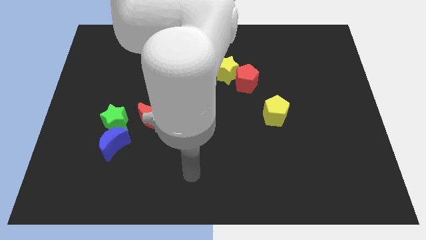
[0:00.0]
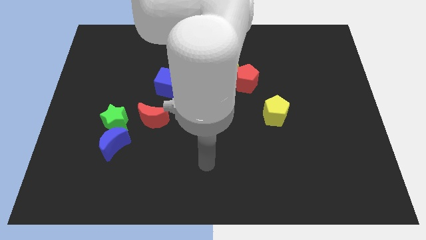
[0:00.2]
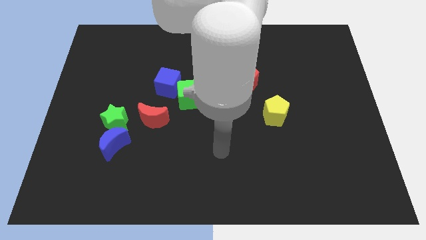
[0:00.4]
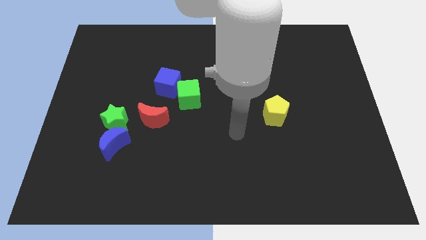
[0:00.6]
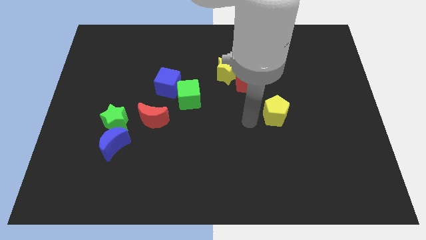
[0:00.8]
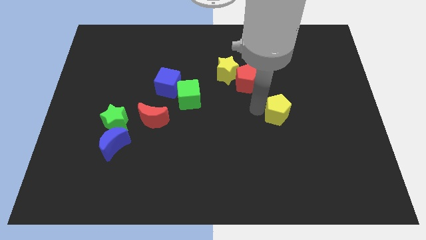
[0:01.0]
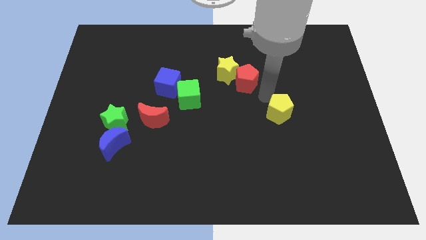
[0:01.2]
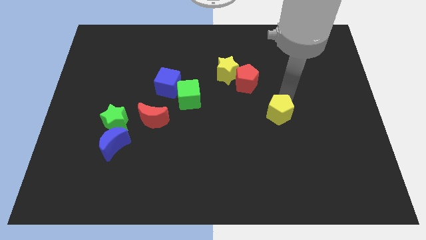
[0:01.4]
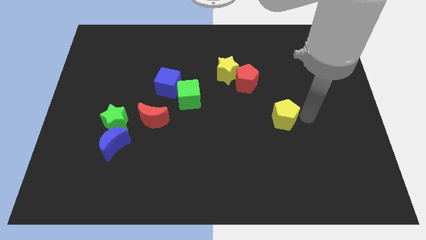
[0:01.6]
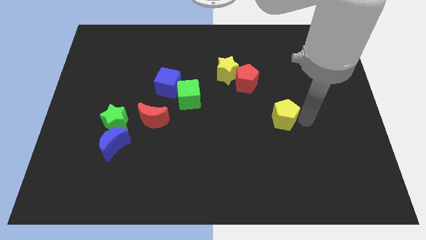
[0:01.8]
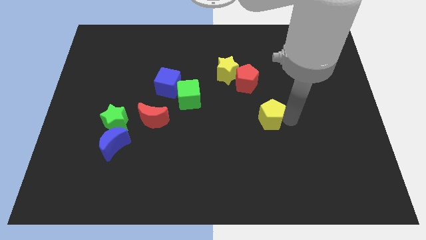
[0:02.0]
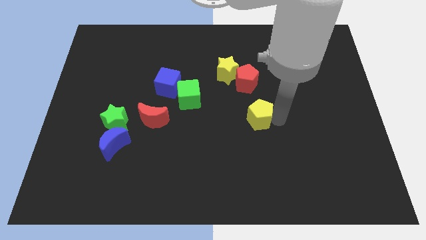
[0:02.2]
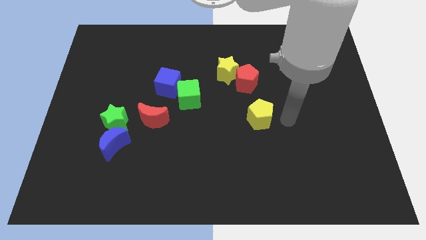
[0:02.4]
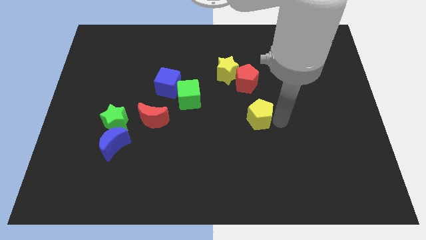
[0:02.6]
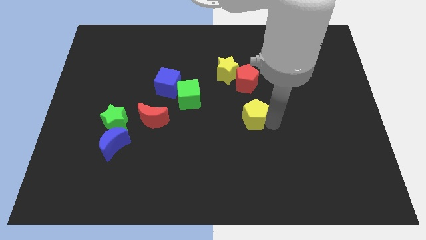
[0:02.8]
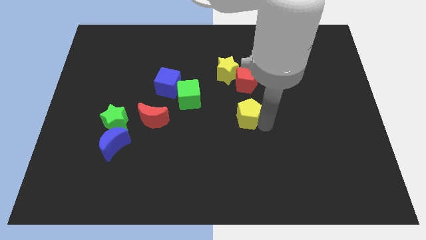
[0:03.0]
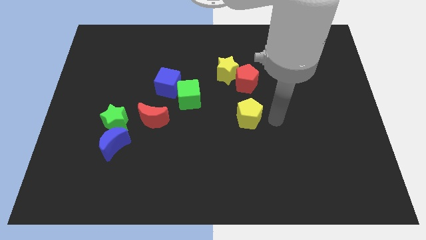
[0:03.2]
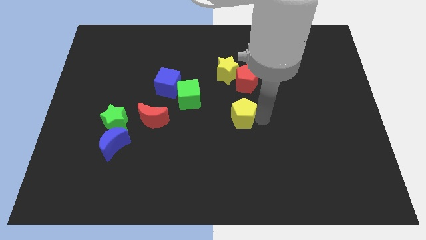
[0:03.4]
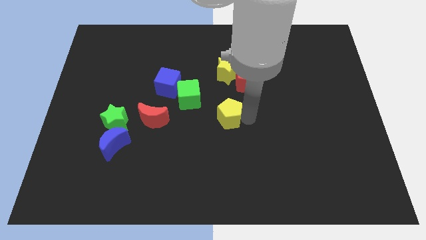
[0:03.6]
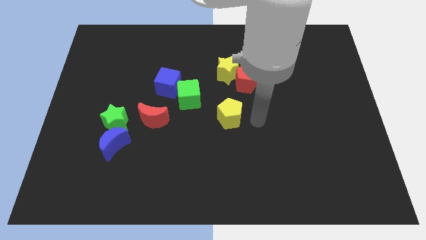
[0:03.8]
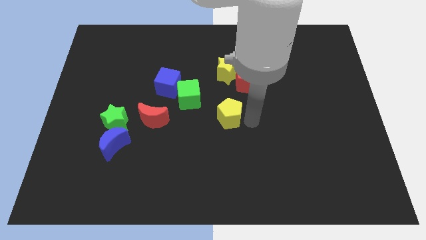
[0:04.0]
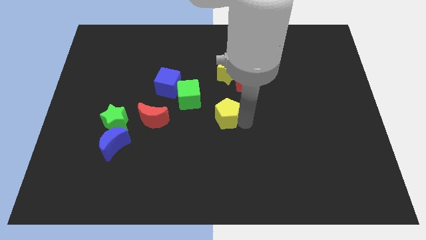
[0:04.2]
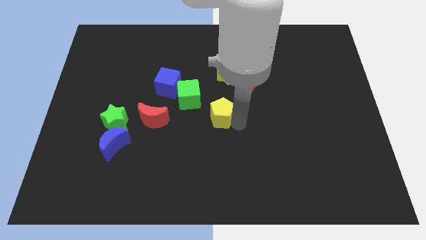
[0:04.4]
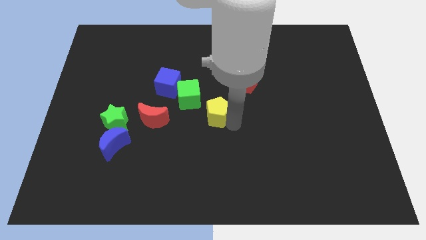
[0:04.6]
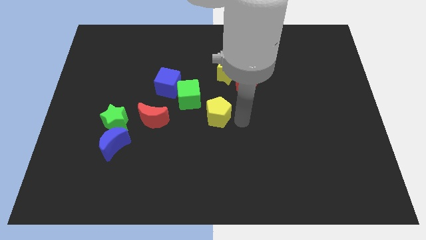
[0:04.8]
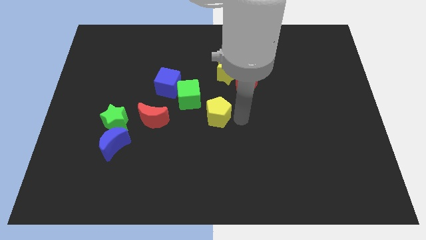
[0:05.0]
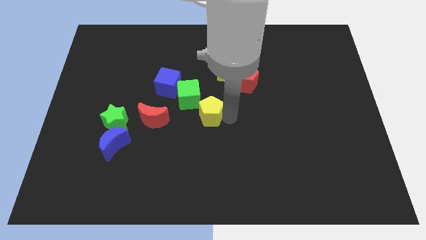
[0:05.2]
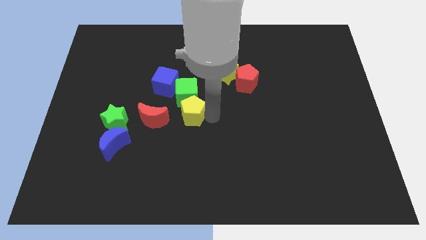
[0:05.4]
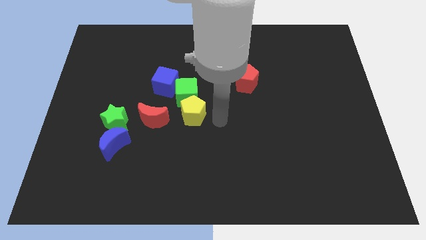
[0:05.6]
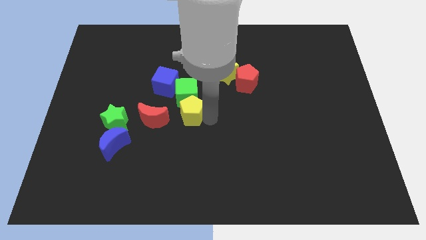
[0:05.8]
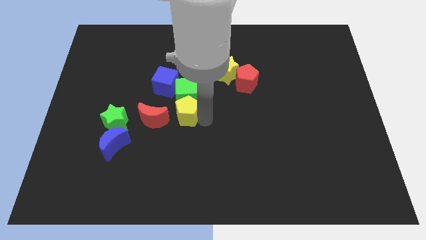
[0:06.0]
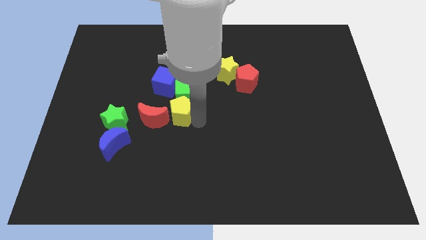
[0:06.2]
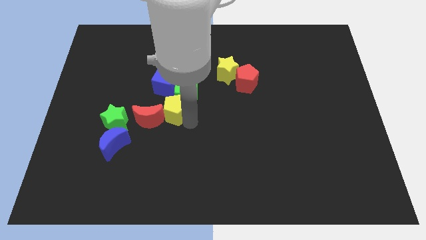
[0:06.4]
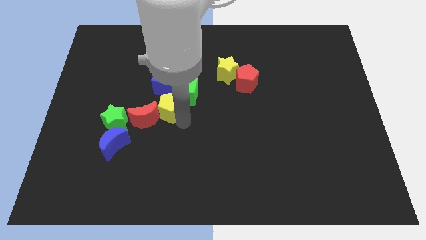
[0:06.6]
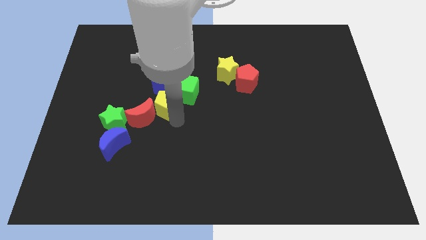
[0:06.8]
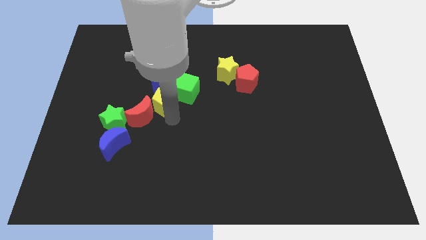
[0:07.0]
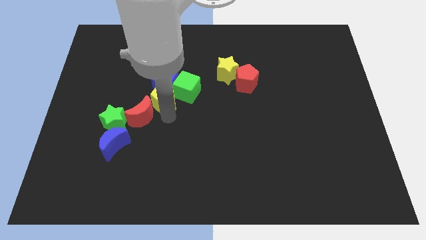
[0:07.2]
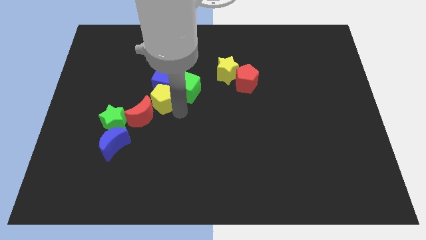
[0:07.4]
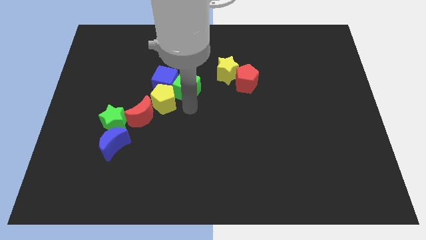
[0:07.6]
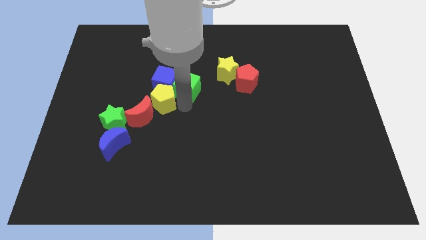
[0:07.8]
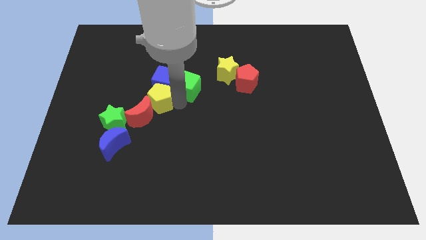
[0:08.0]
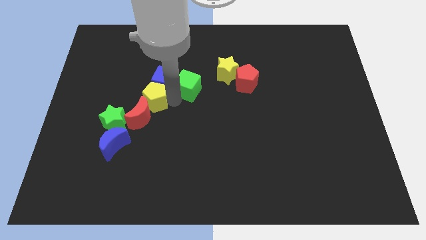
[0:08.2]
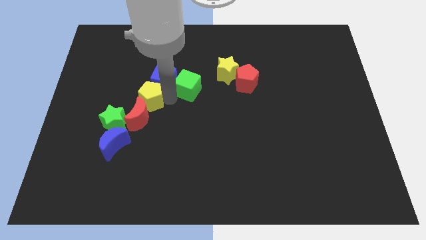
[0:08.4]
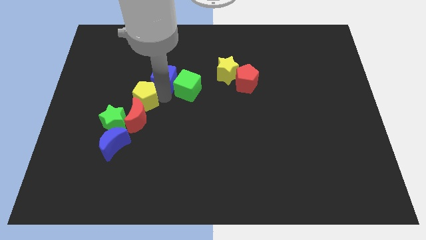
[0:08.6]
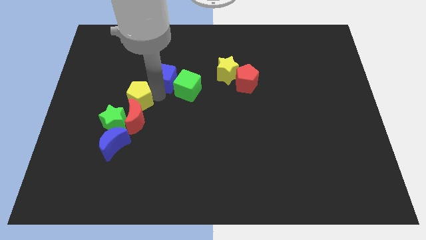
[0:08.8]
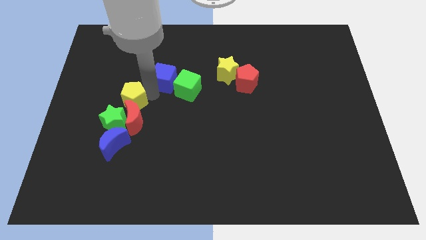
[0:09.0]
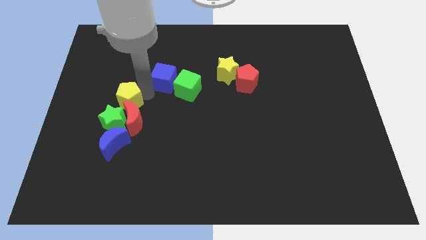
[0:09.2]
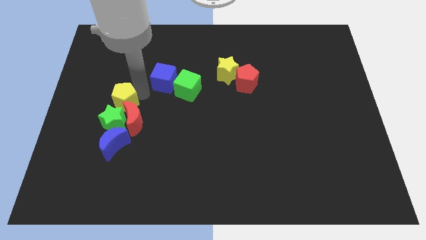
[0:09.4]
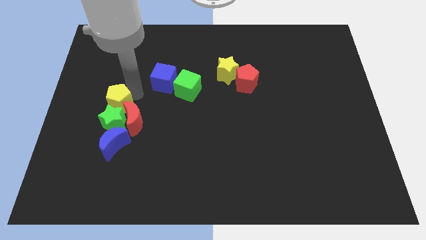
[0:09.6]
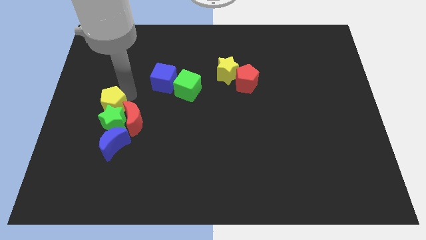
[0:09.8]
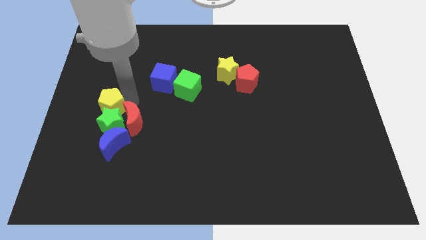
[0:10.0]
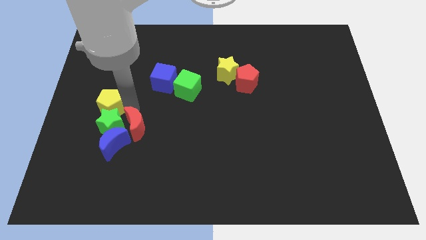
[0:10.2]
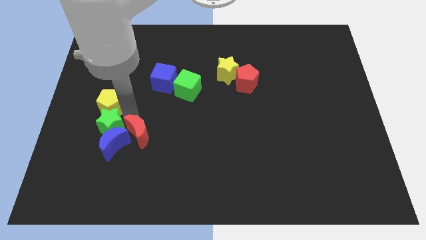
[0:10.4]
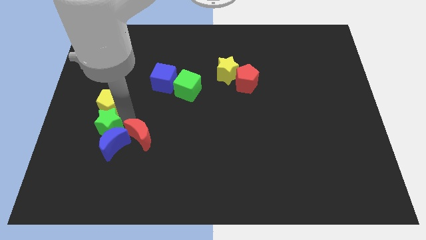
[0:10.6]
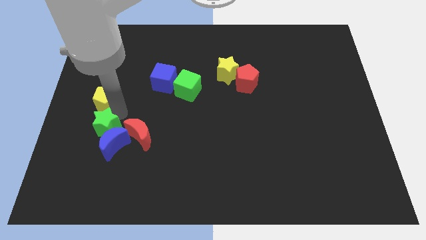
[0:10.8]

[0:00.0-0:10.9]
slide the yellow pentagon to the left side

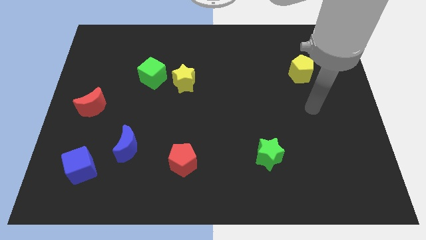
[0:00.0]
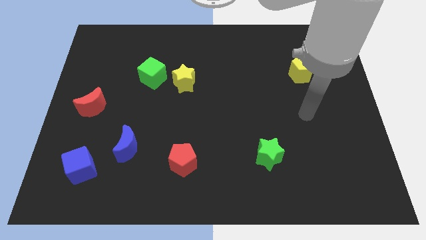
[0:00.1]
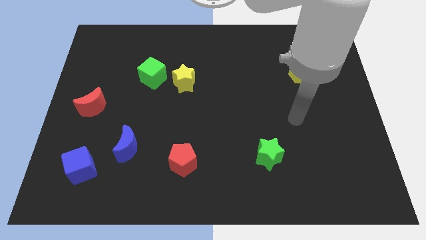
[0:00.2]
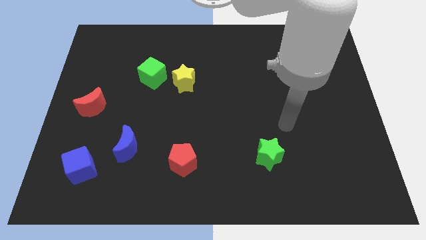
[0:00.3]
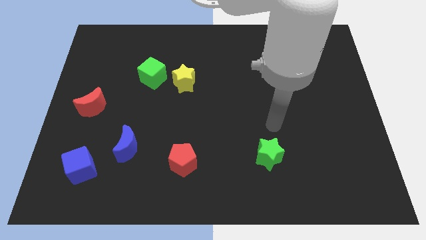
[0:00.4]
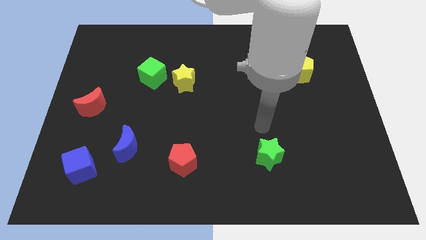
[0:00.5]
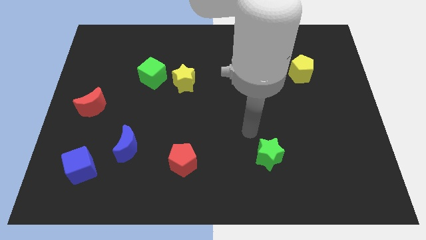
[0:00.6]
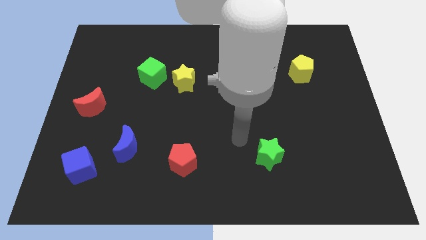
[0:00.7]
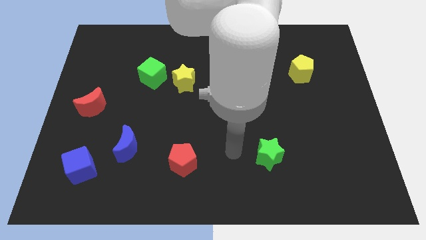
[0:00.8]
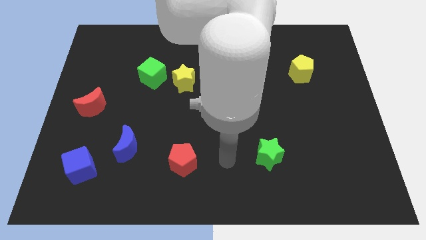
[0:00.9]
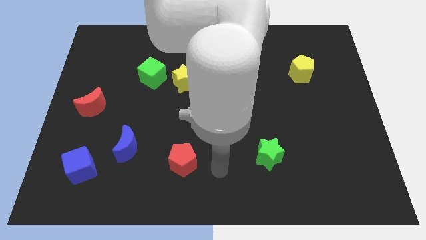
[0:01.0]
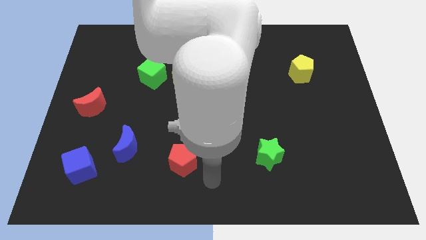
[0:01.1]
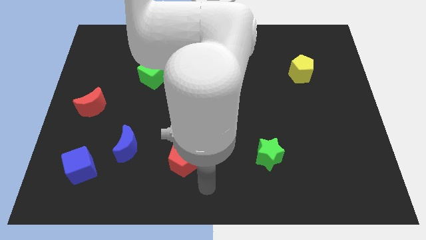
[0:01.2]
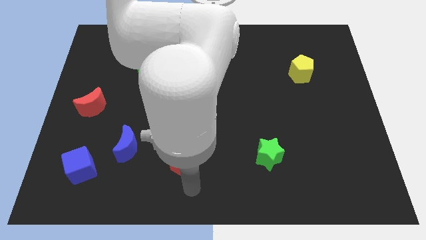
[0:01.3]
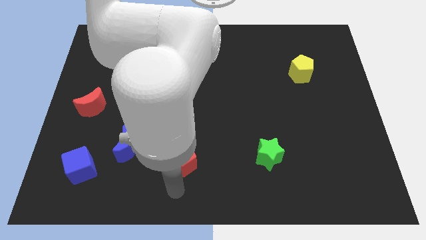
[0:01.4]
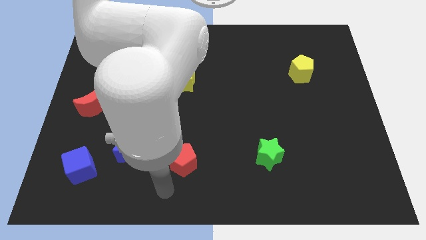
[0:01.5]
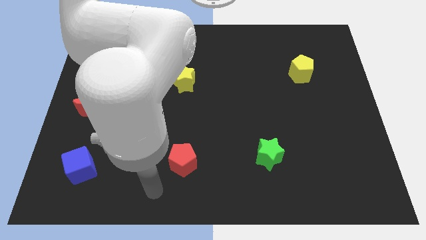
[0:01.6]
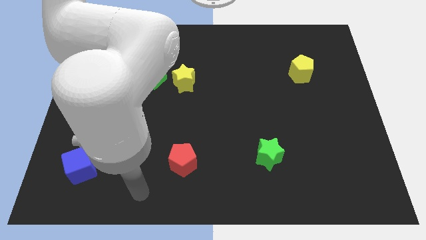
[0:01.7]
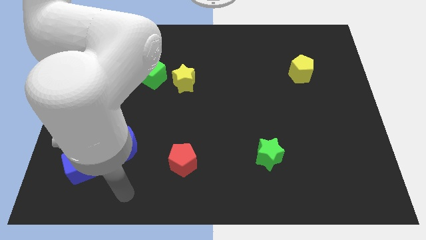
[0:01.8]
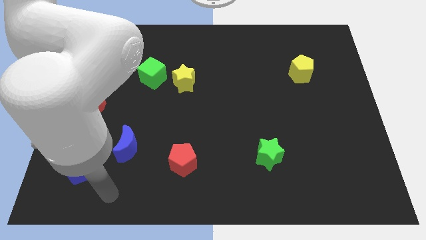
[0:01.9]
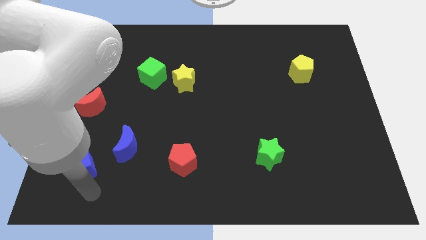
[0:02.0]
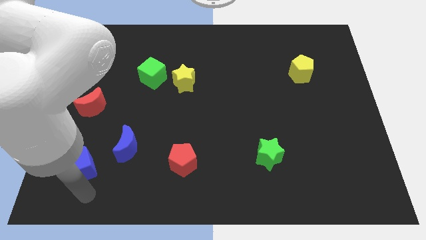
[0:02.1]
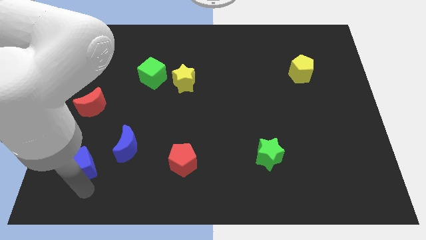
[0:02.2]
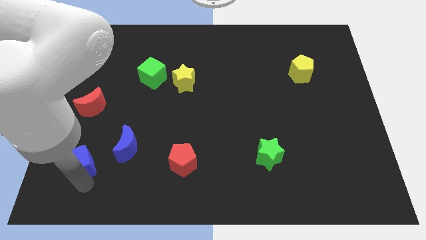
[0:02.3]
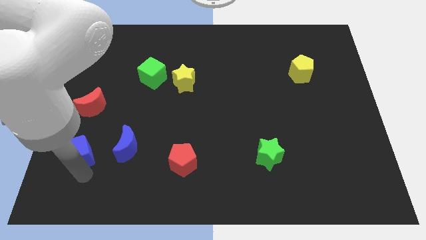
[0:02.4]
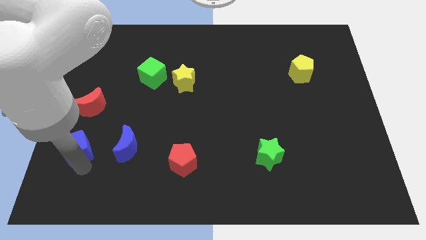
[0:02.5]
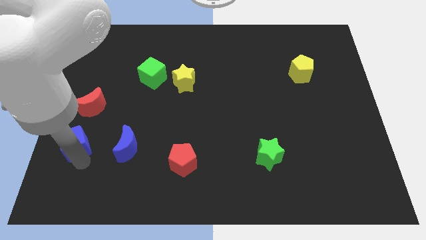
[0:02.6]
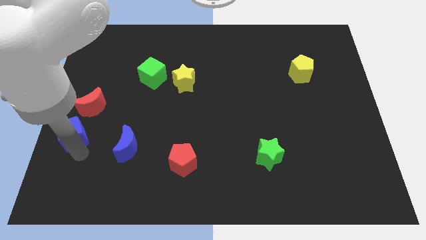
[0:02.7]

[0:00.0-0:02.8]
slide the blue cube to the left side of the board
